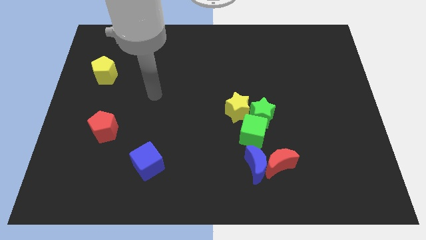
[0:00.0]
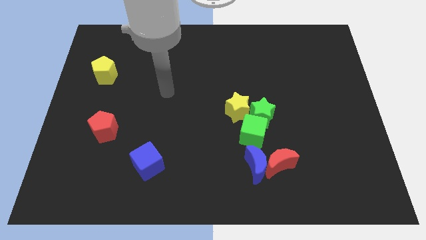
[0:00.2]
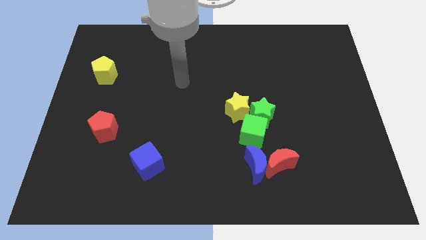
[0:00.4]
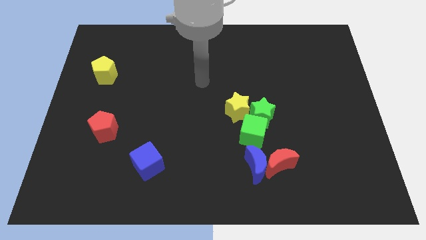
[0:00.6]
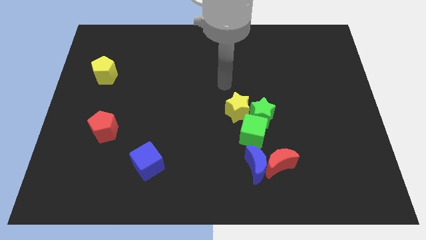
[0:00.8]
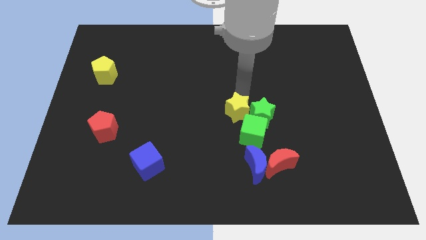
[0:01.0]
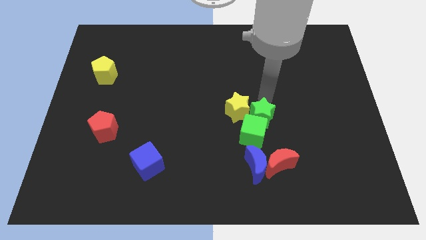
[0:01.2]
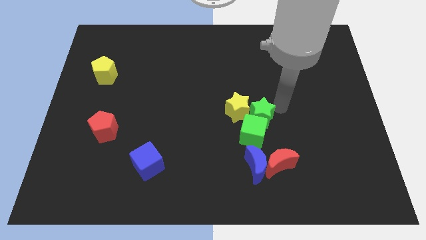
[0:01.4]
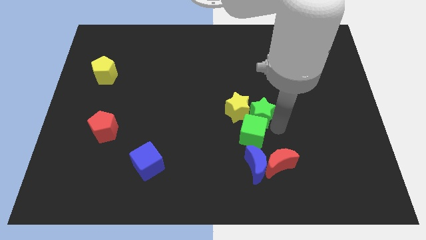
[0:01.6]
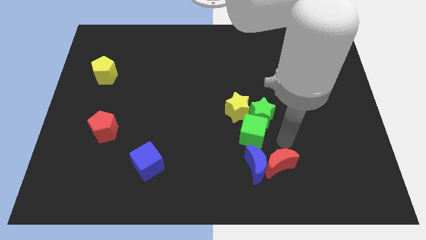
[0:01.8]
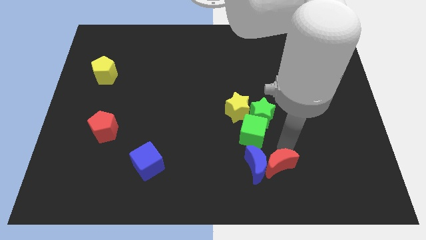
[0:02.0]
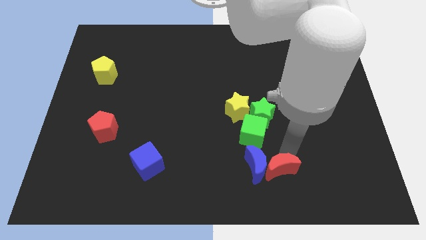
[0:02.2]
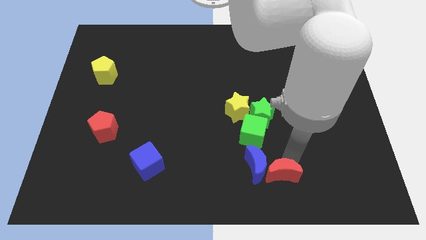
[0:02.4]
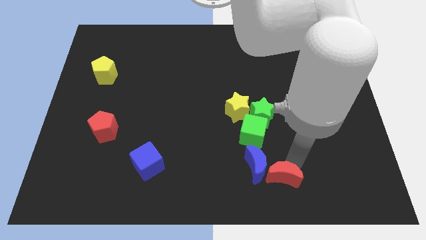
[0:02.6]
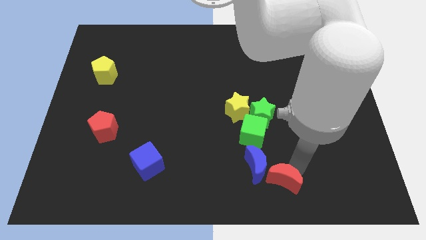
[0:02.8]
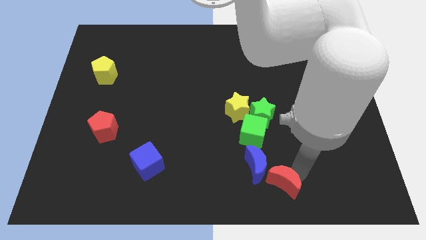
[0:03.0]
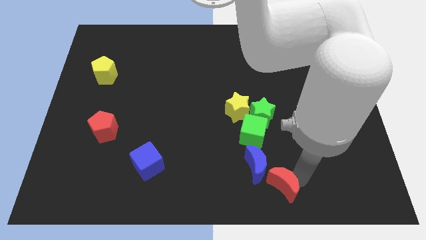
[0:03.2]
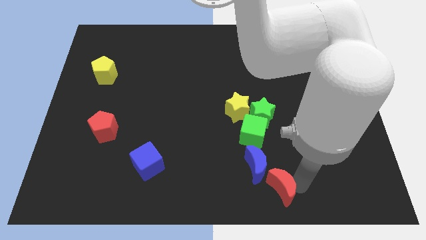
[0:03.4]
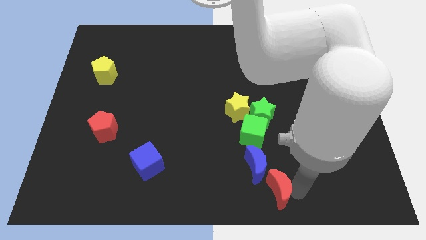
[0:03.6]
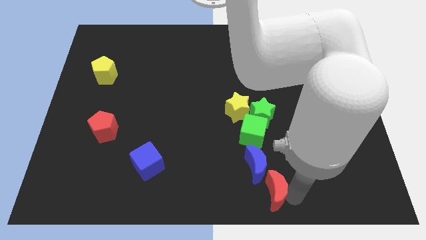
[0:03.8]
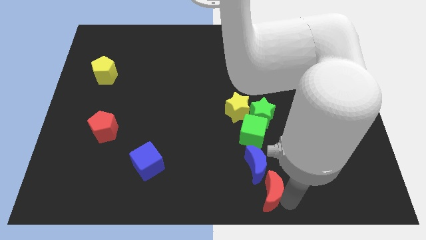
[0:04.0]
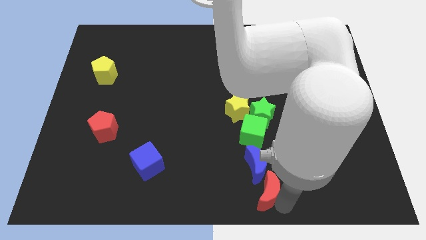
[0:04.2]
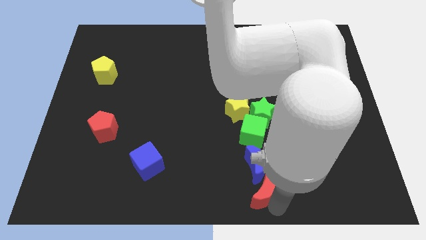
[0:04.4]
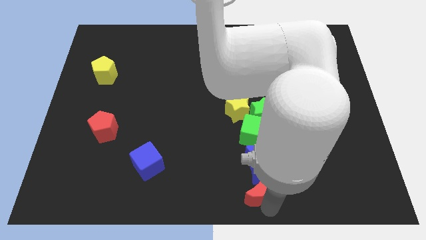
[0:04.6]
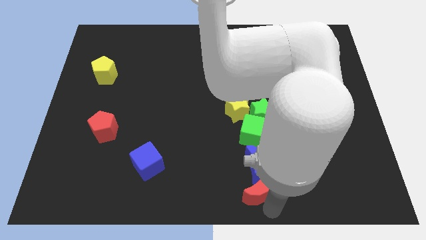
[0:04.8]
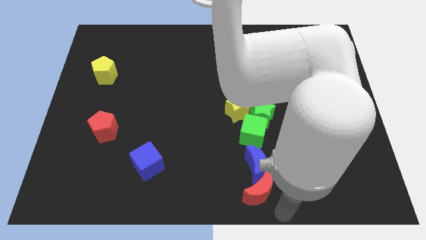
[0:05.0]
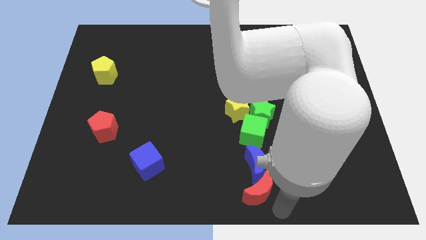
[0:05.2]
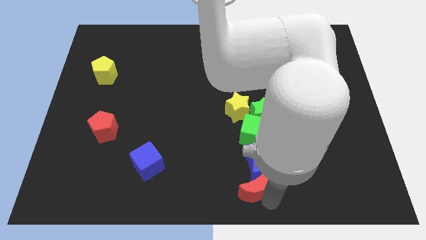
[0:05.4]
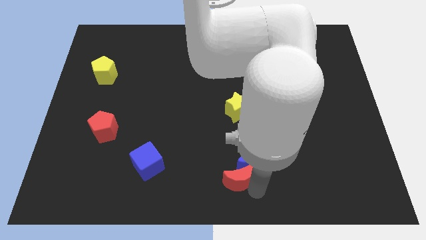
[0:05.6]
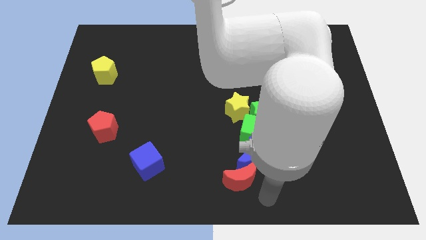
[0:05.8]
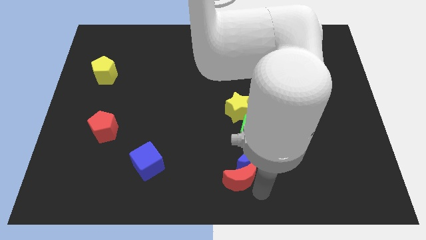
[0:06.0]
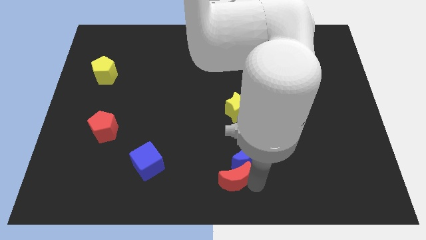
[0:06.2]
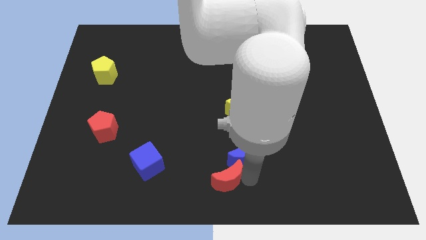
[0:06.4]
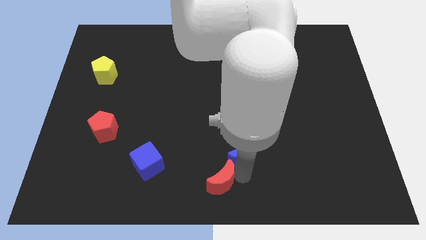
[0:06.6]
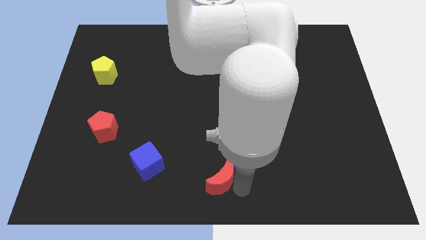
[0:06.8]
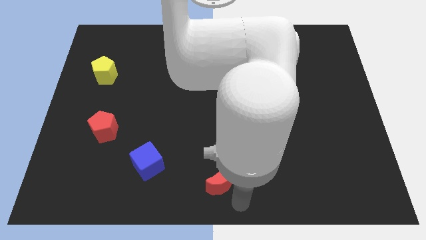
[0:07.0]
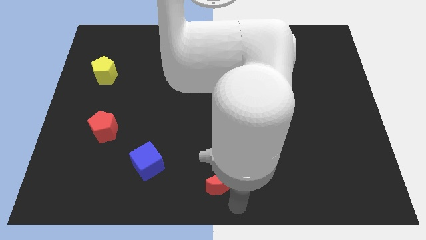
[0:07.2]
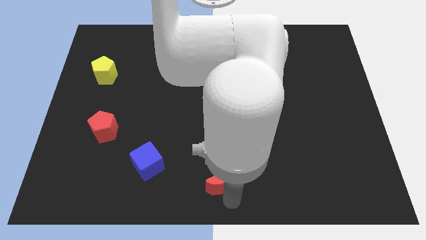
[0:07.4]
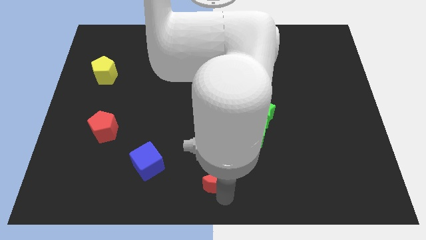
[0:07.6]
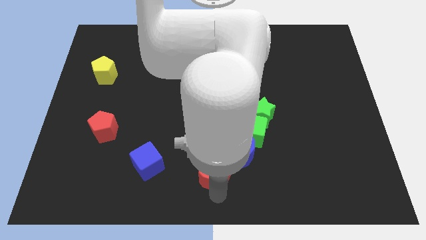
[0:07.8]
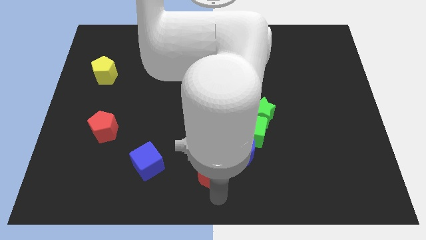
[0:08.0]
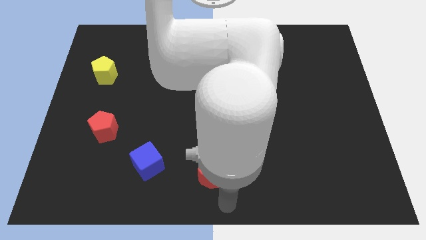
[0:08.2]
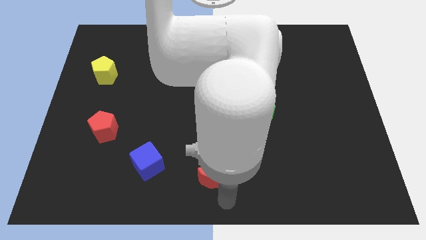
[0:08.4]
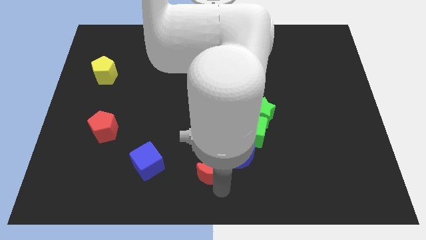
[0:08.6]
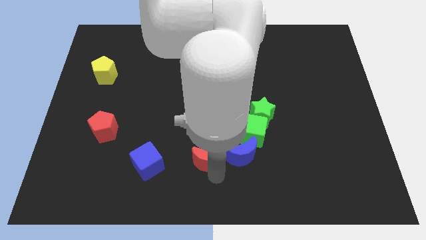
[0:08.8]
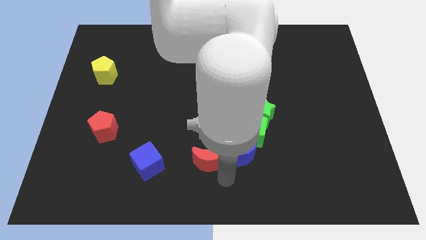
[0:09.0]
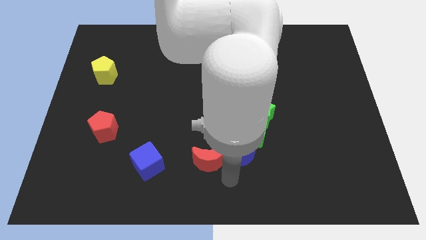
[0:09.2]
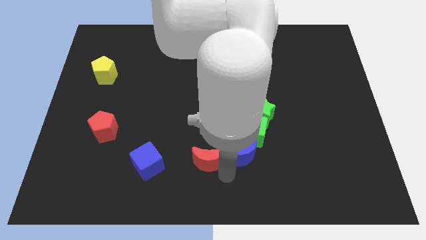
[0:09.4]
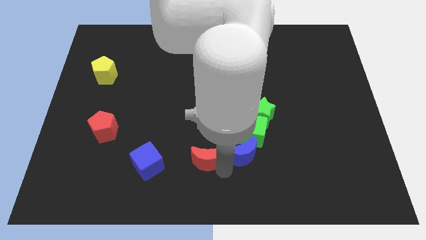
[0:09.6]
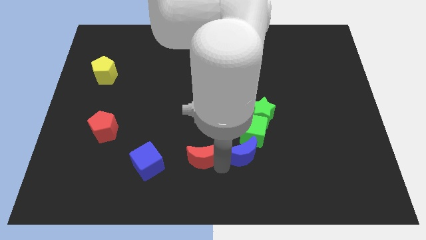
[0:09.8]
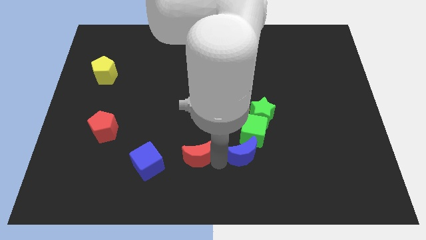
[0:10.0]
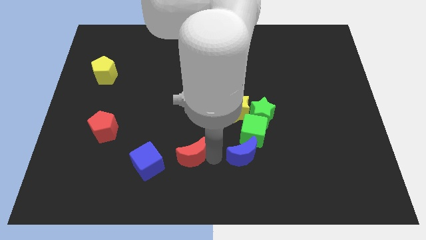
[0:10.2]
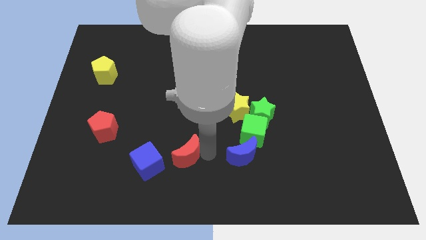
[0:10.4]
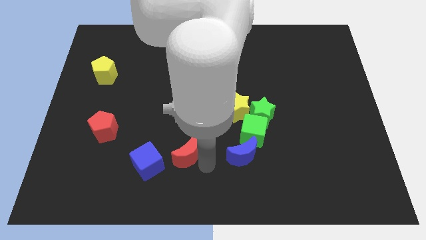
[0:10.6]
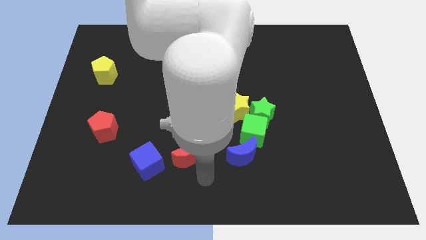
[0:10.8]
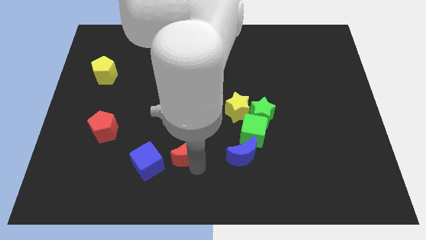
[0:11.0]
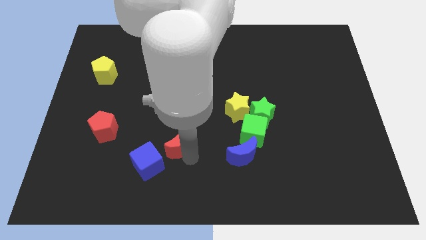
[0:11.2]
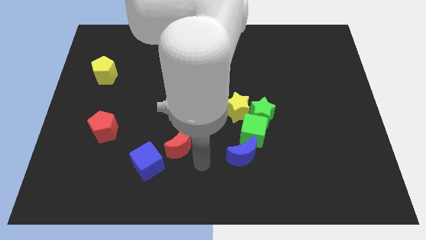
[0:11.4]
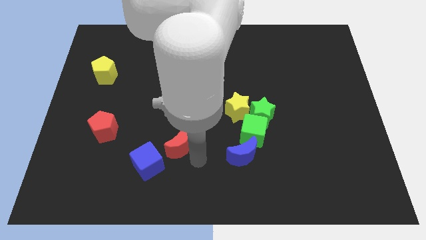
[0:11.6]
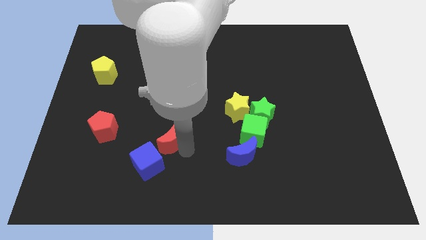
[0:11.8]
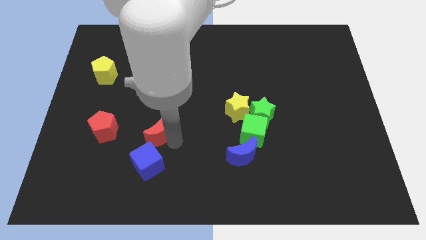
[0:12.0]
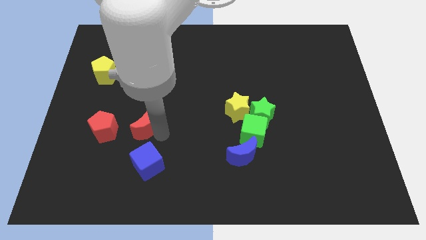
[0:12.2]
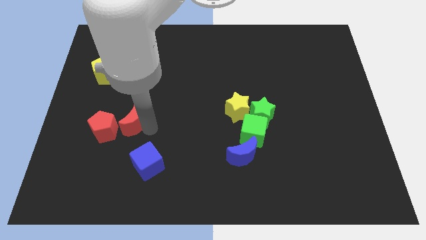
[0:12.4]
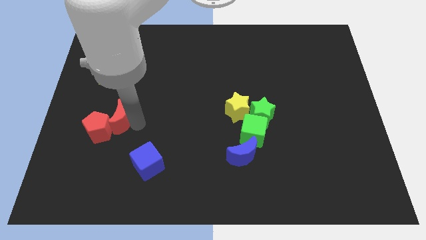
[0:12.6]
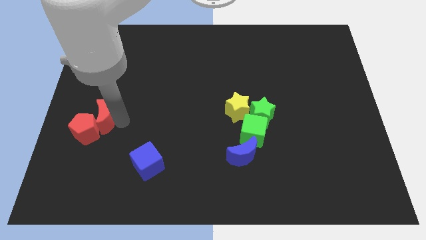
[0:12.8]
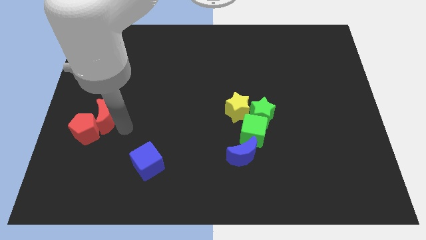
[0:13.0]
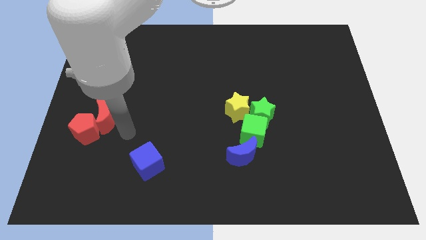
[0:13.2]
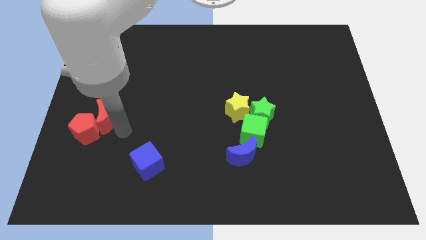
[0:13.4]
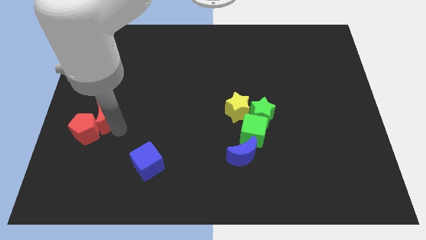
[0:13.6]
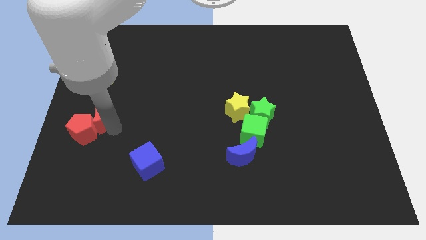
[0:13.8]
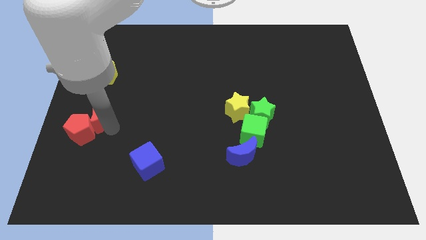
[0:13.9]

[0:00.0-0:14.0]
put the red moon to the center left
